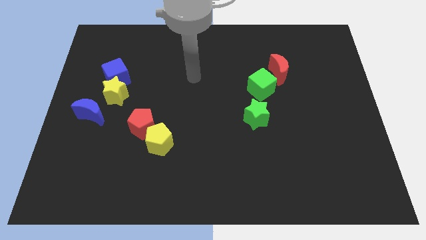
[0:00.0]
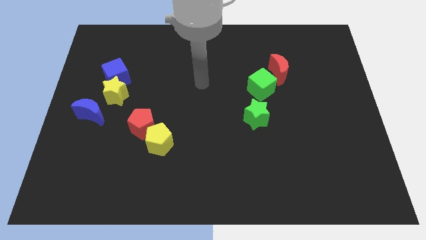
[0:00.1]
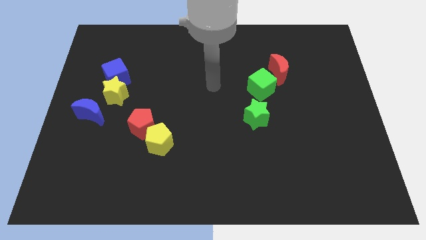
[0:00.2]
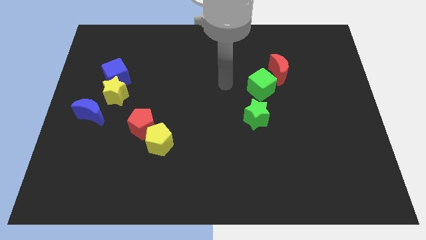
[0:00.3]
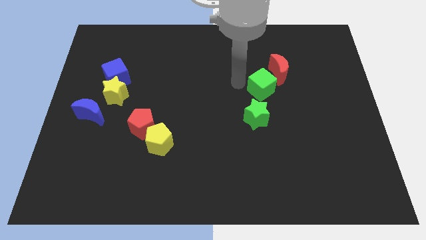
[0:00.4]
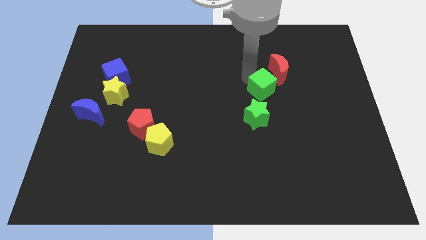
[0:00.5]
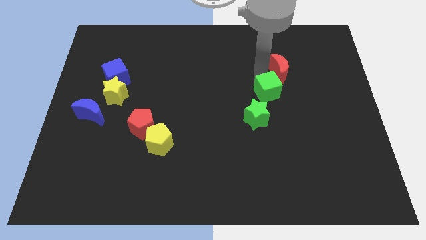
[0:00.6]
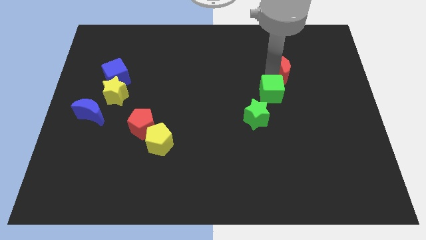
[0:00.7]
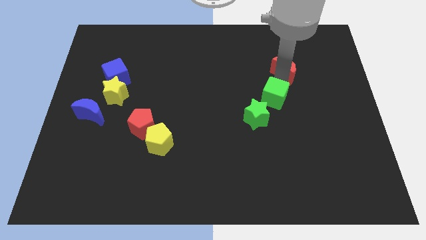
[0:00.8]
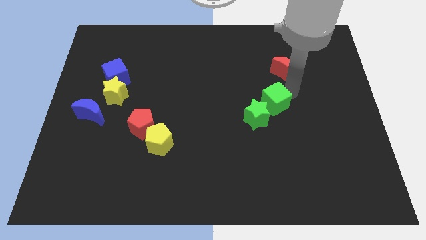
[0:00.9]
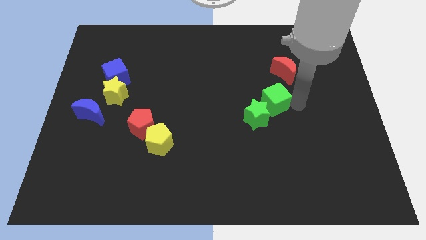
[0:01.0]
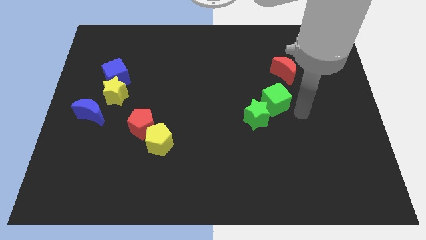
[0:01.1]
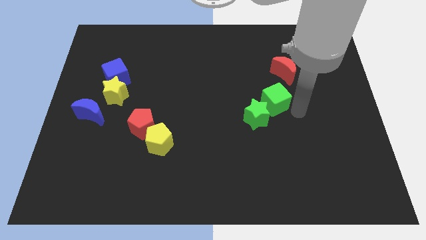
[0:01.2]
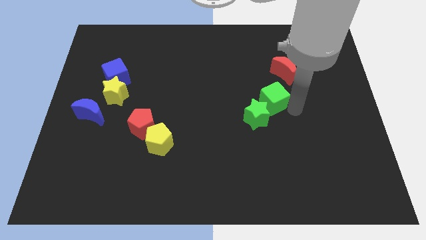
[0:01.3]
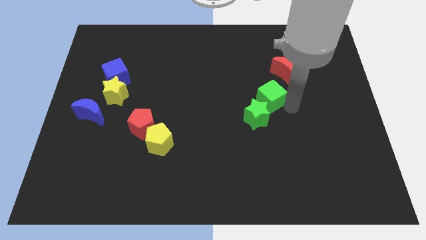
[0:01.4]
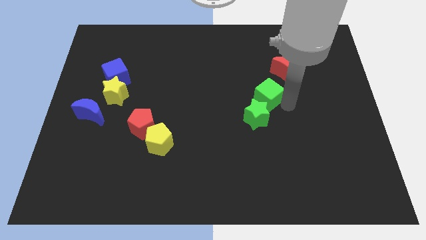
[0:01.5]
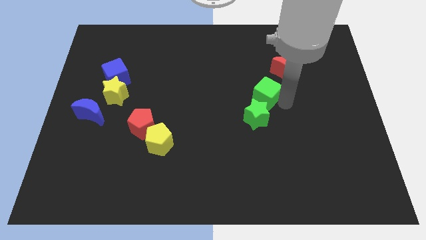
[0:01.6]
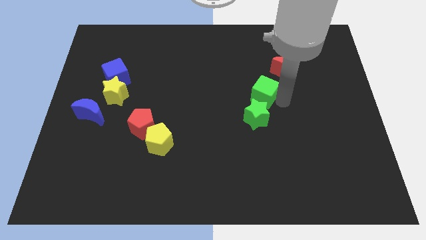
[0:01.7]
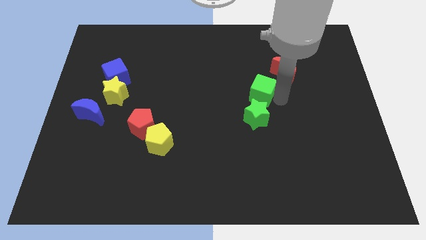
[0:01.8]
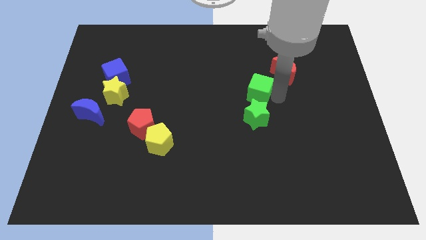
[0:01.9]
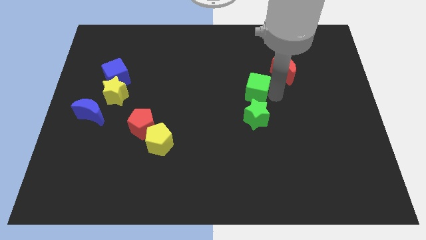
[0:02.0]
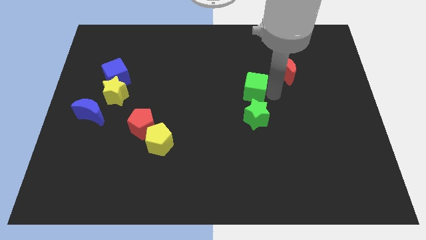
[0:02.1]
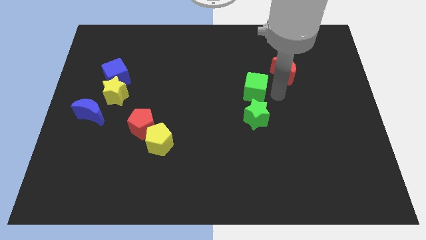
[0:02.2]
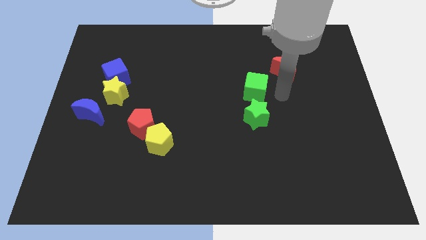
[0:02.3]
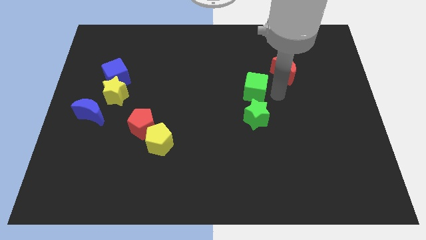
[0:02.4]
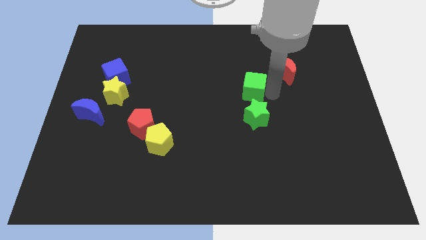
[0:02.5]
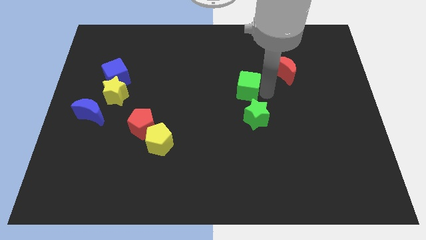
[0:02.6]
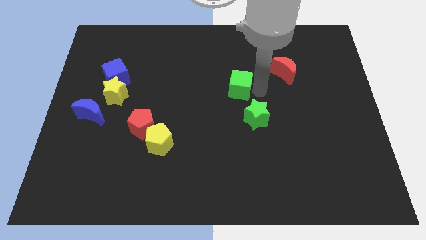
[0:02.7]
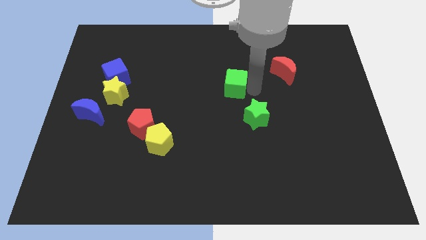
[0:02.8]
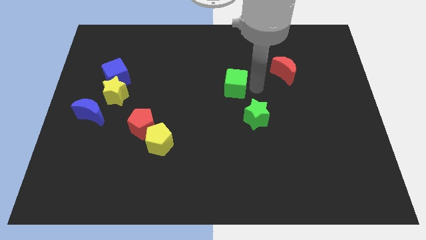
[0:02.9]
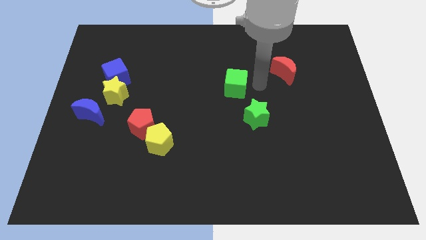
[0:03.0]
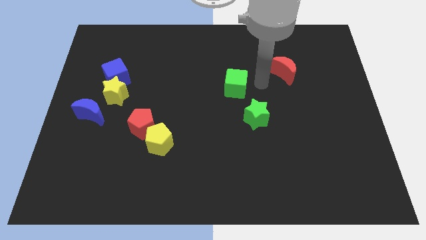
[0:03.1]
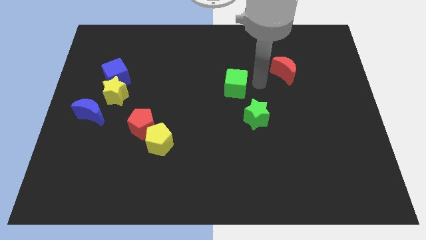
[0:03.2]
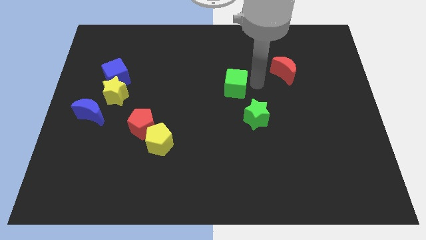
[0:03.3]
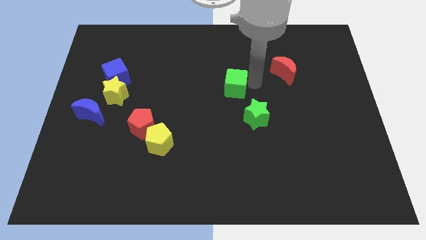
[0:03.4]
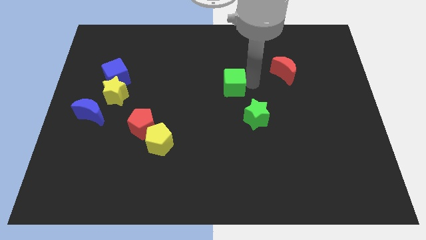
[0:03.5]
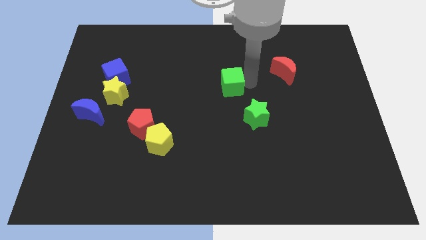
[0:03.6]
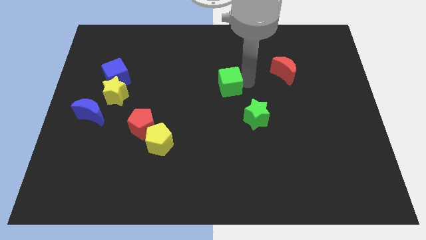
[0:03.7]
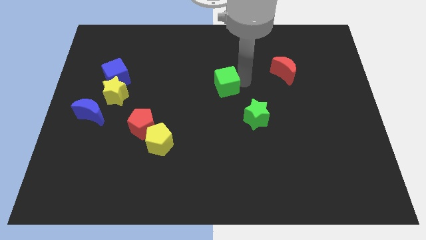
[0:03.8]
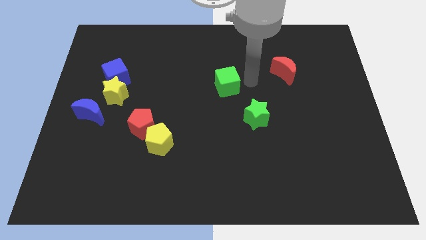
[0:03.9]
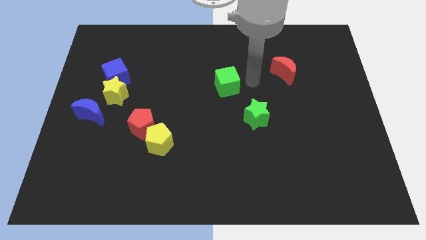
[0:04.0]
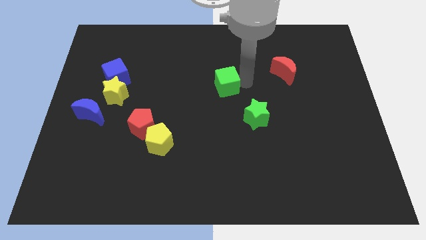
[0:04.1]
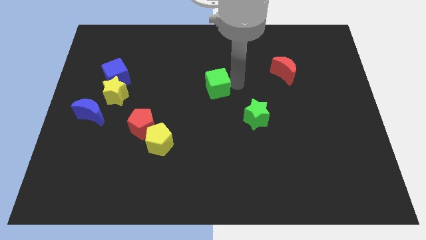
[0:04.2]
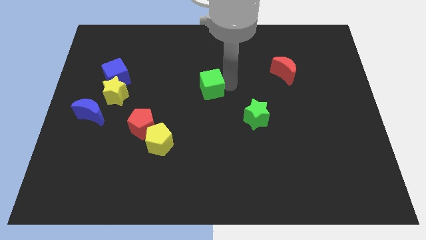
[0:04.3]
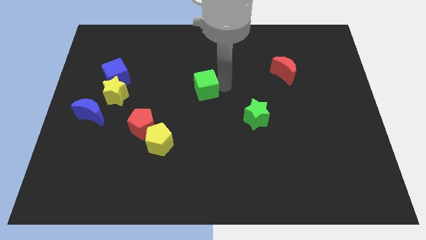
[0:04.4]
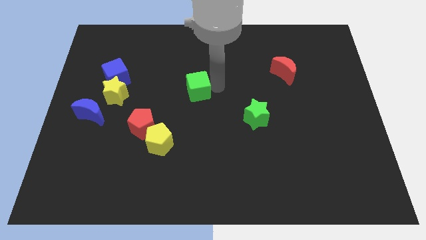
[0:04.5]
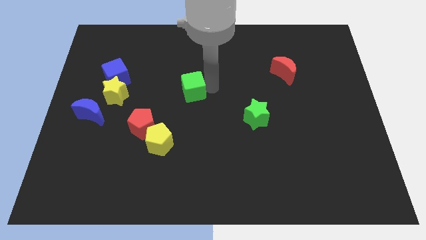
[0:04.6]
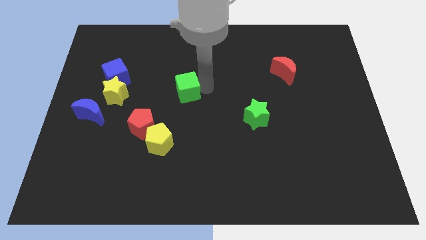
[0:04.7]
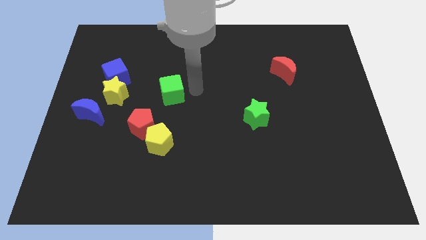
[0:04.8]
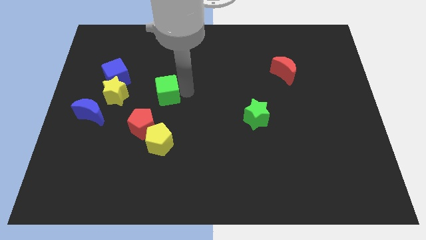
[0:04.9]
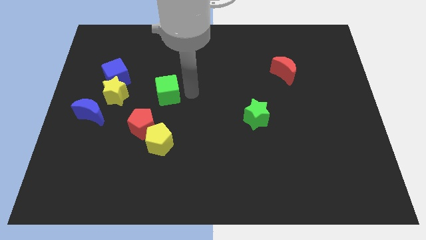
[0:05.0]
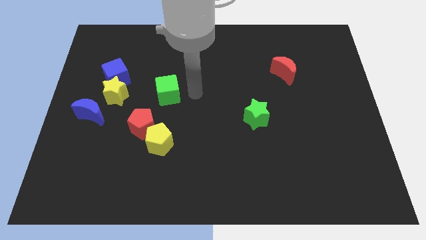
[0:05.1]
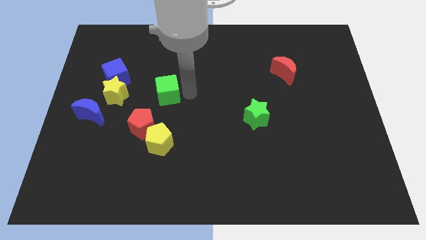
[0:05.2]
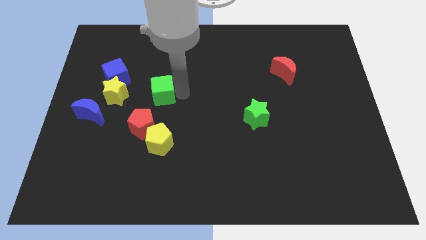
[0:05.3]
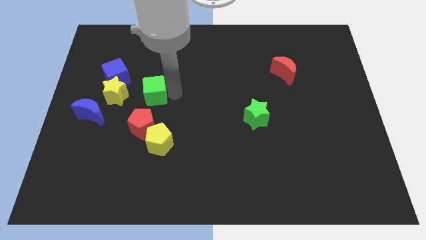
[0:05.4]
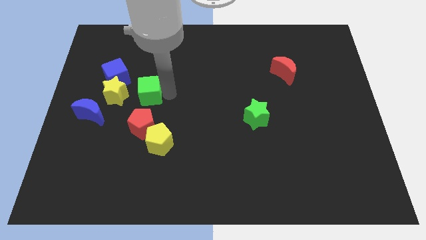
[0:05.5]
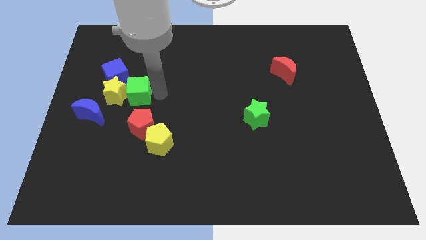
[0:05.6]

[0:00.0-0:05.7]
put the green cube close to the yellow star
